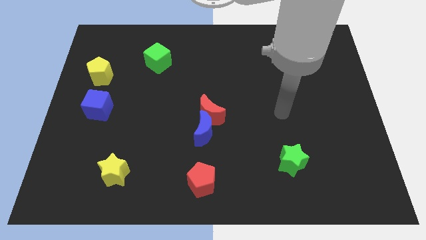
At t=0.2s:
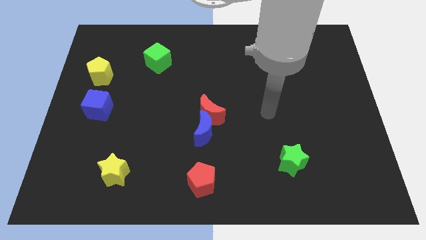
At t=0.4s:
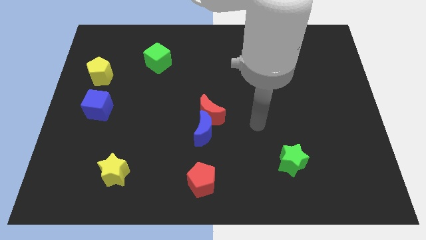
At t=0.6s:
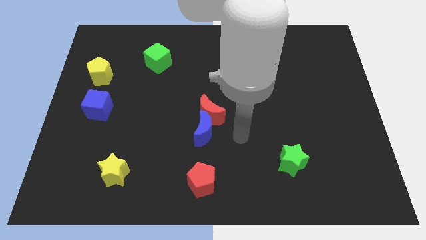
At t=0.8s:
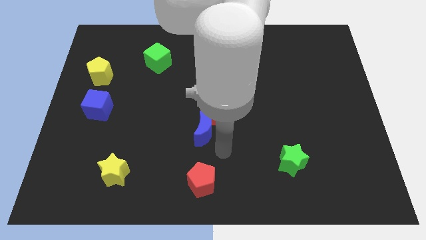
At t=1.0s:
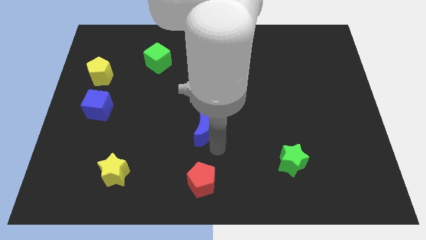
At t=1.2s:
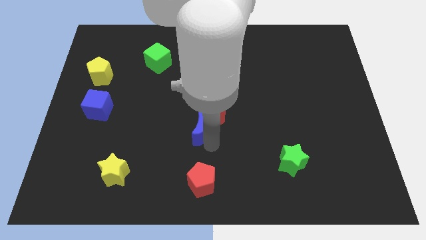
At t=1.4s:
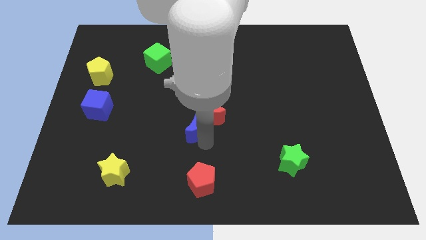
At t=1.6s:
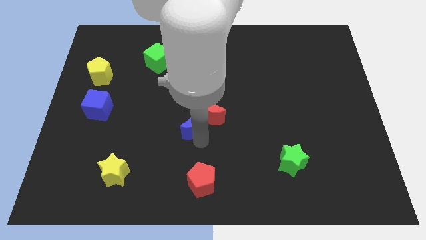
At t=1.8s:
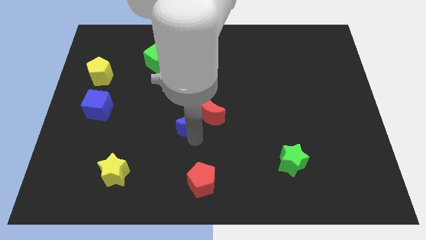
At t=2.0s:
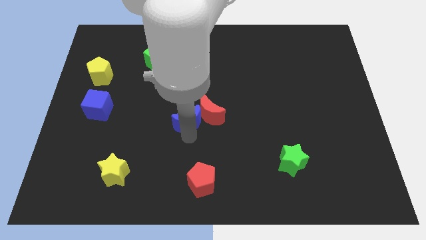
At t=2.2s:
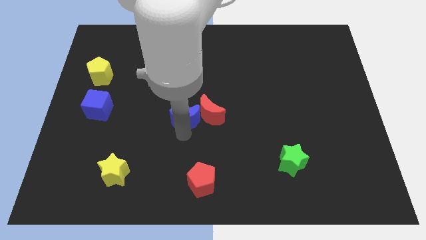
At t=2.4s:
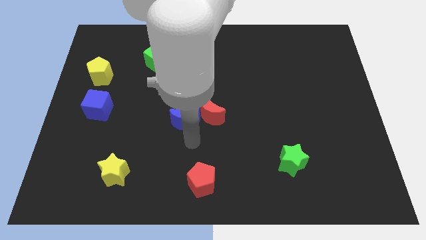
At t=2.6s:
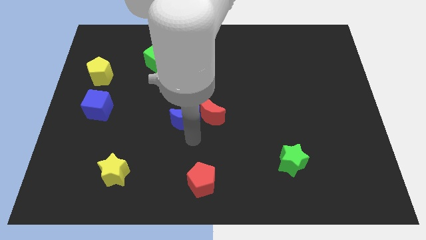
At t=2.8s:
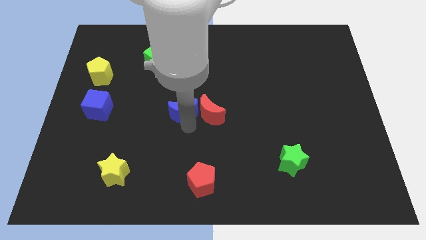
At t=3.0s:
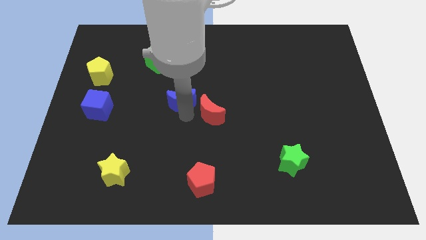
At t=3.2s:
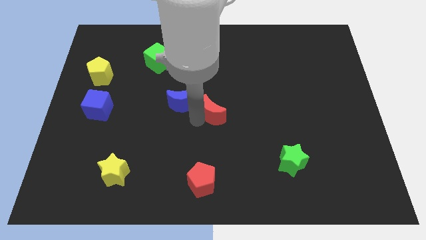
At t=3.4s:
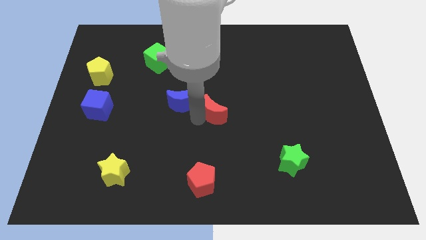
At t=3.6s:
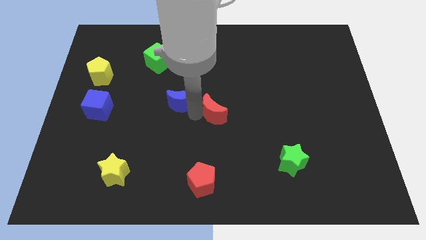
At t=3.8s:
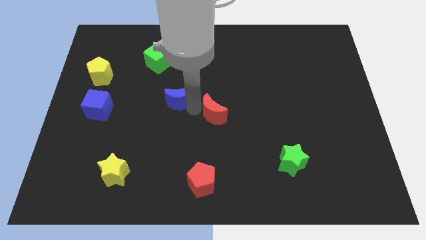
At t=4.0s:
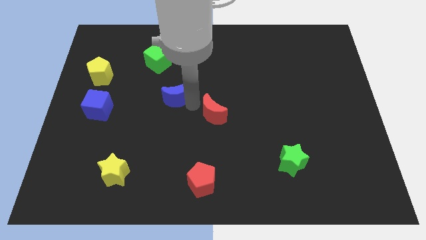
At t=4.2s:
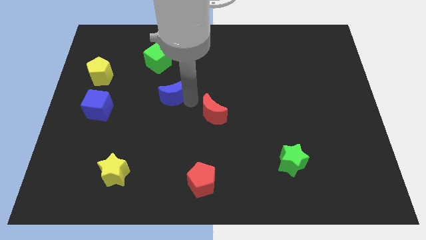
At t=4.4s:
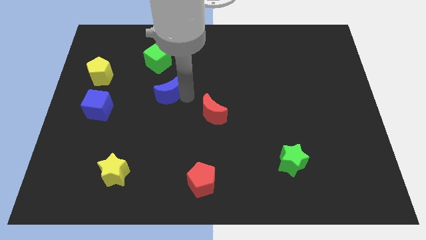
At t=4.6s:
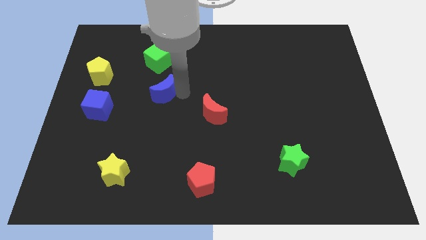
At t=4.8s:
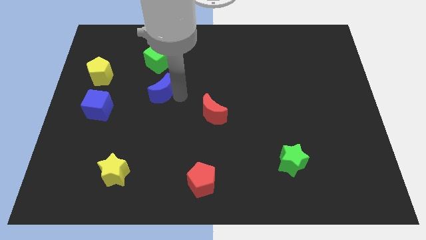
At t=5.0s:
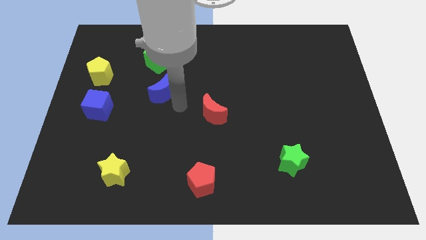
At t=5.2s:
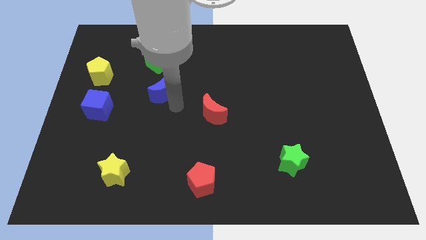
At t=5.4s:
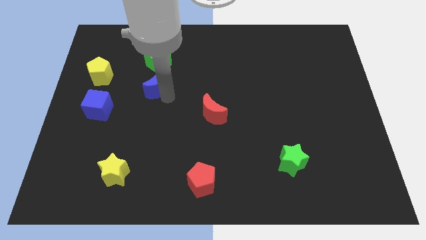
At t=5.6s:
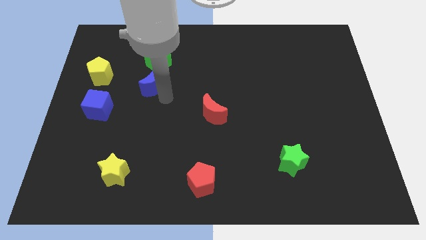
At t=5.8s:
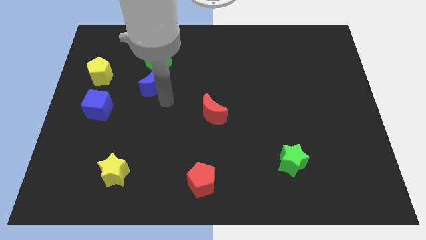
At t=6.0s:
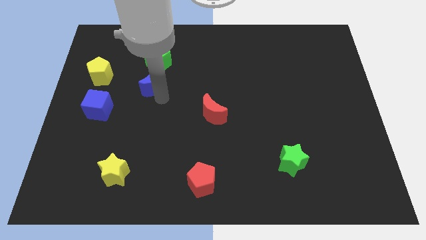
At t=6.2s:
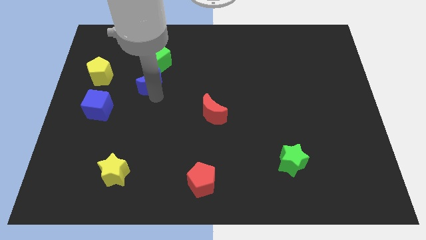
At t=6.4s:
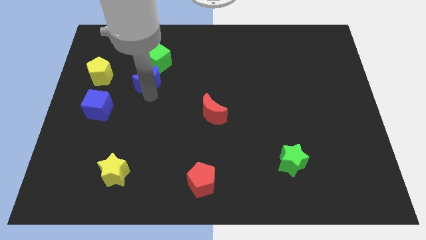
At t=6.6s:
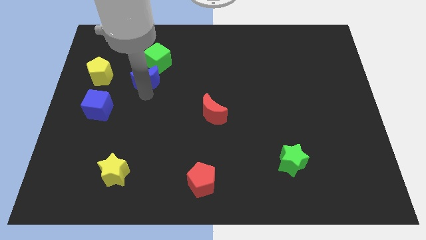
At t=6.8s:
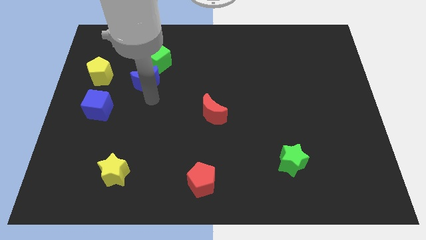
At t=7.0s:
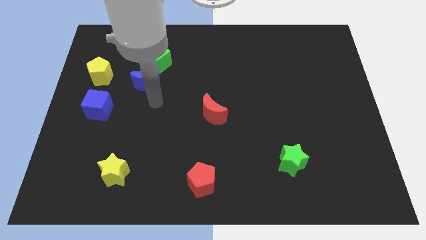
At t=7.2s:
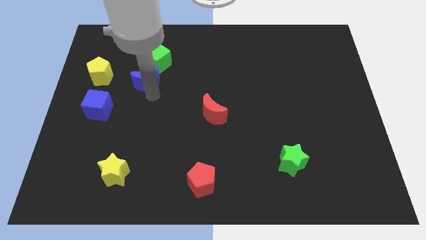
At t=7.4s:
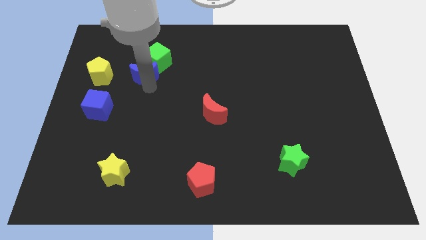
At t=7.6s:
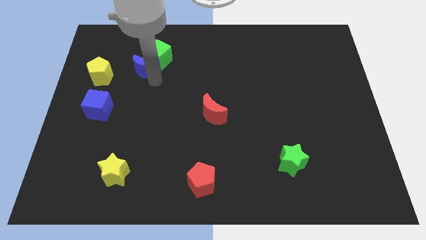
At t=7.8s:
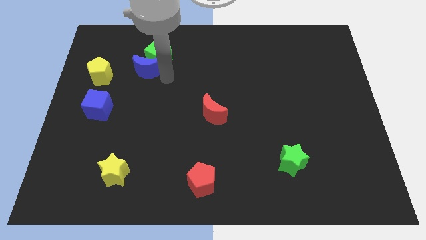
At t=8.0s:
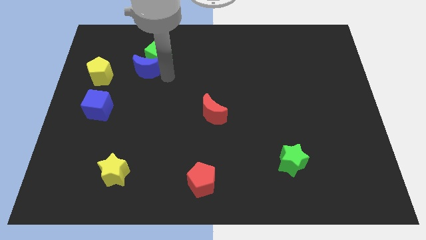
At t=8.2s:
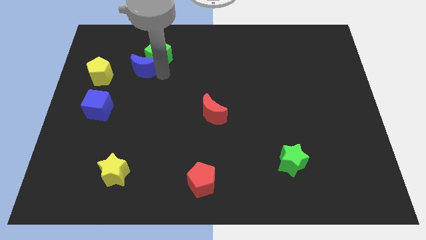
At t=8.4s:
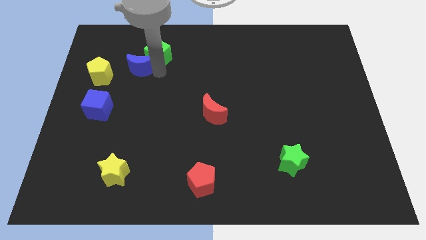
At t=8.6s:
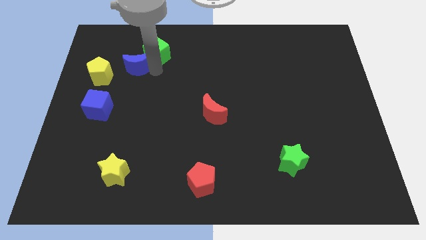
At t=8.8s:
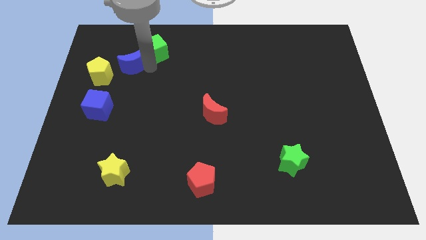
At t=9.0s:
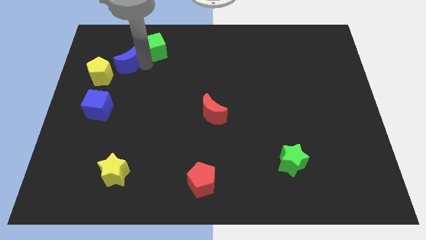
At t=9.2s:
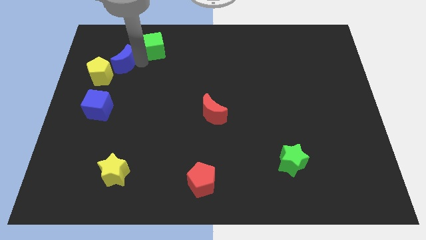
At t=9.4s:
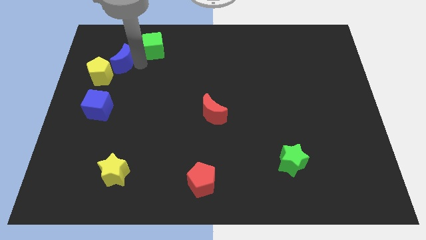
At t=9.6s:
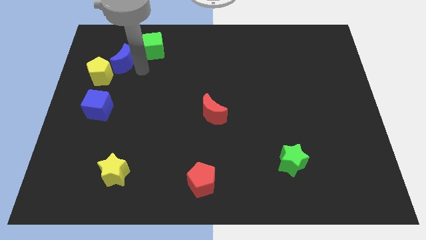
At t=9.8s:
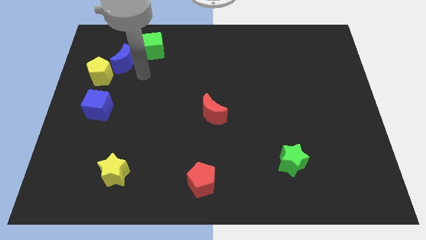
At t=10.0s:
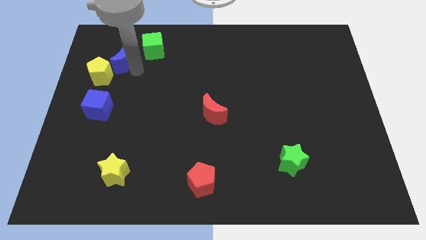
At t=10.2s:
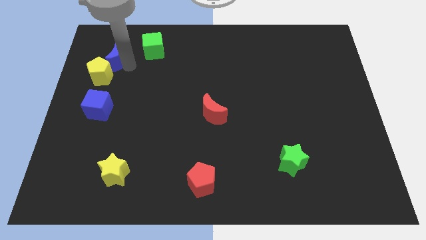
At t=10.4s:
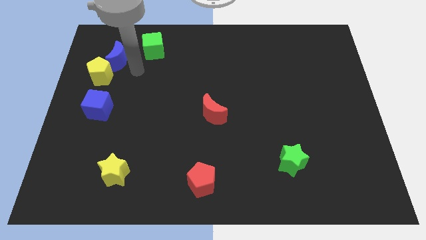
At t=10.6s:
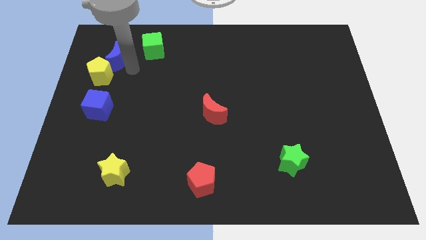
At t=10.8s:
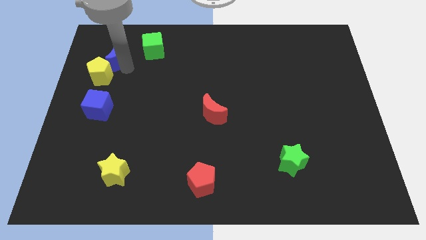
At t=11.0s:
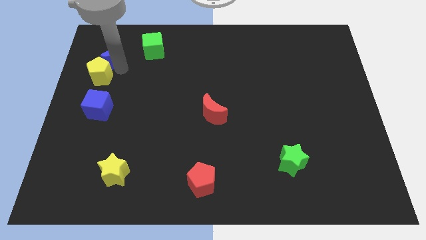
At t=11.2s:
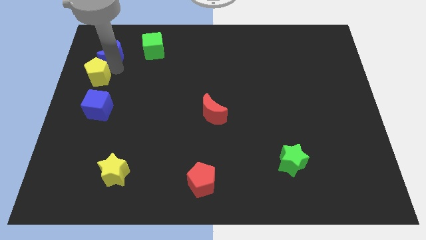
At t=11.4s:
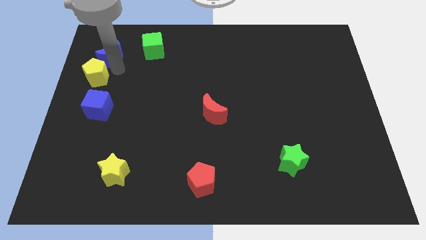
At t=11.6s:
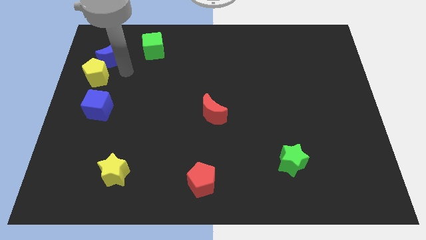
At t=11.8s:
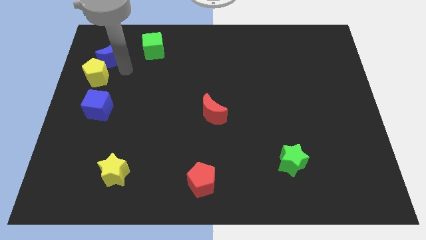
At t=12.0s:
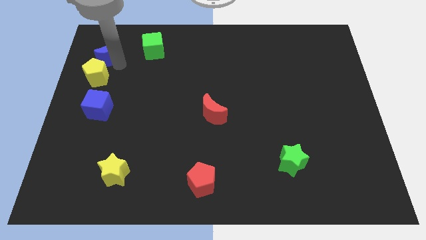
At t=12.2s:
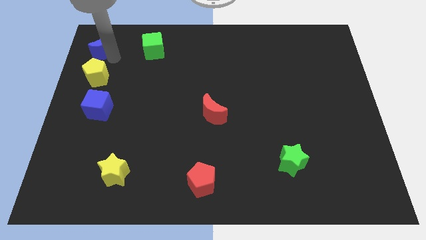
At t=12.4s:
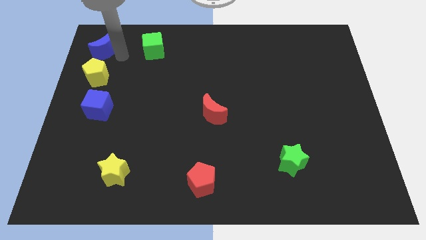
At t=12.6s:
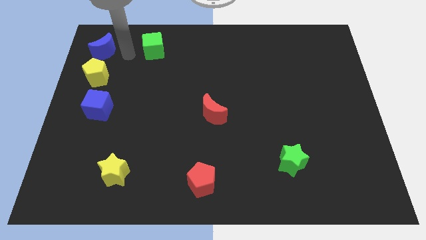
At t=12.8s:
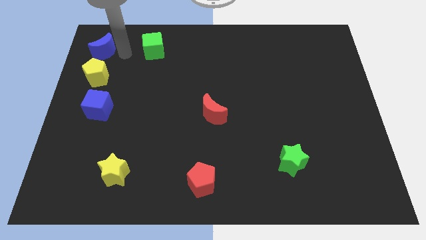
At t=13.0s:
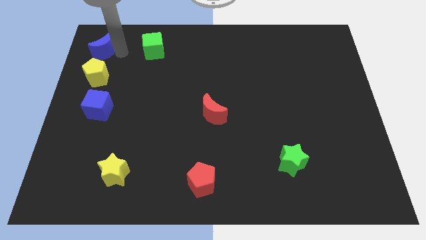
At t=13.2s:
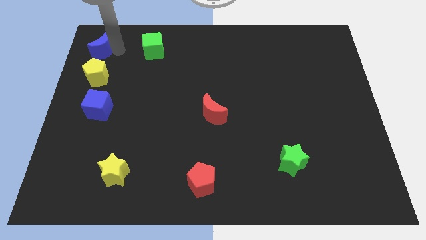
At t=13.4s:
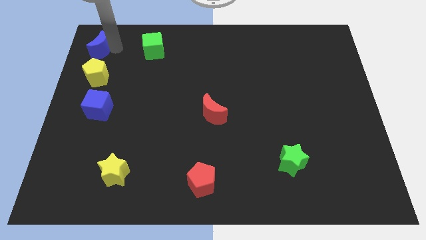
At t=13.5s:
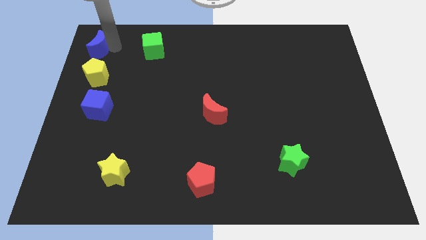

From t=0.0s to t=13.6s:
put the blue moon to the top left of the board
